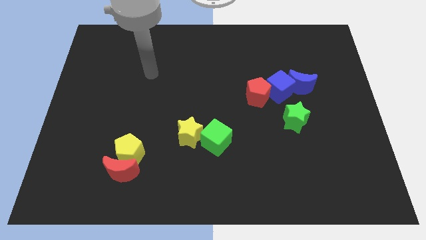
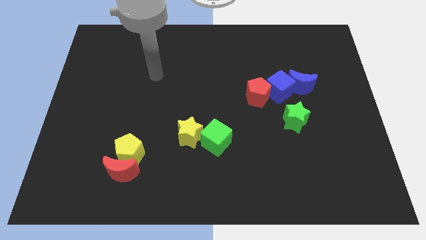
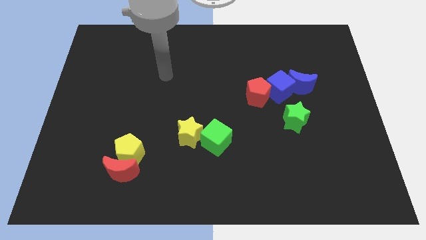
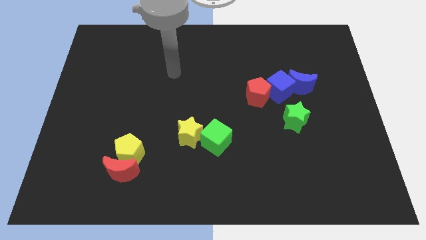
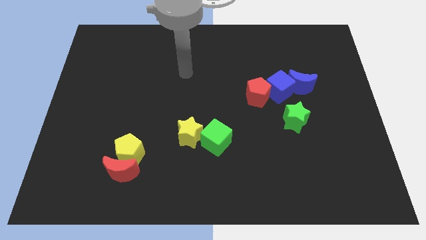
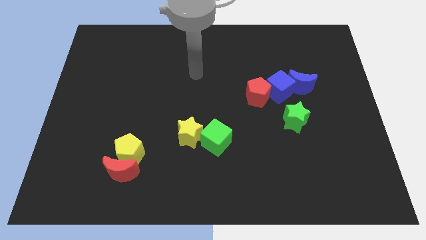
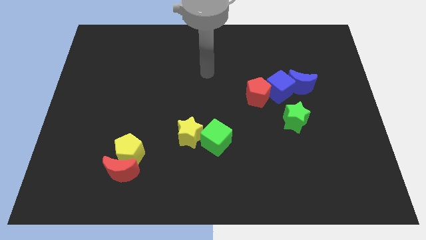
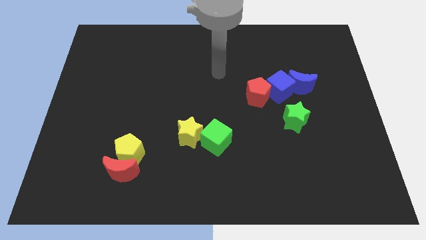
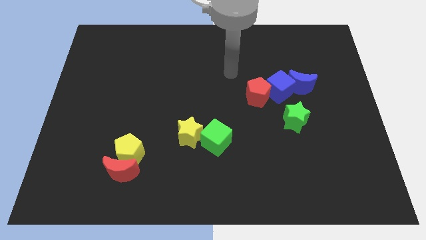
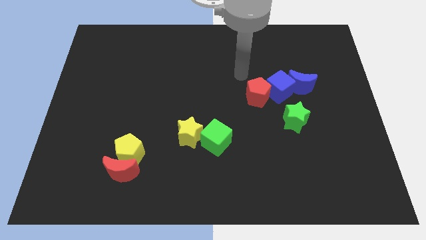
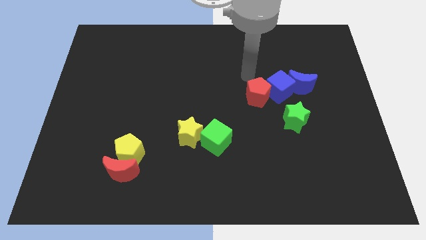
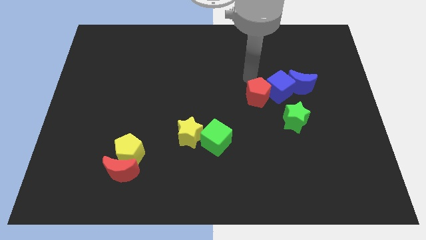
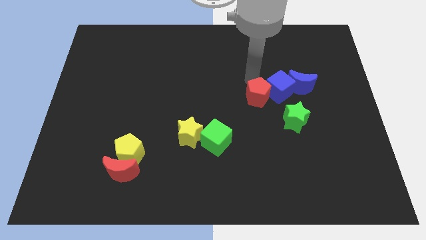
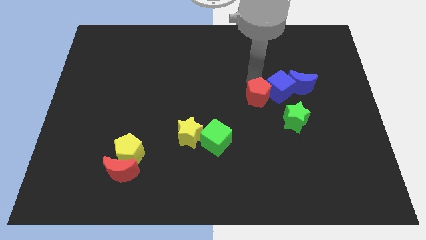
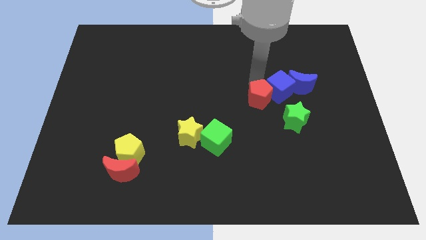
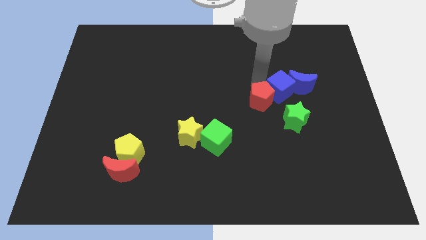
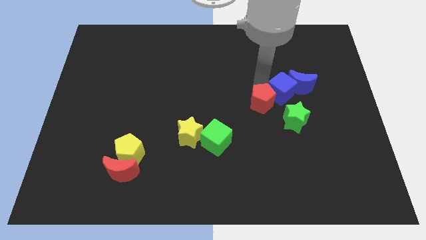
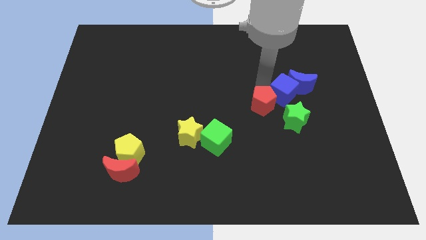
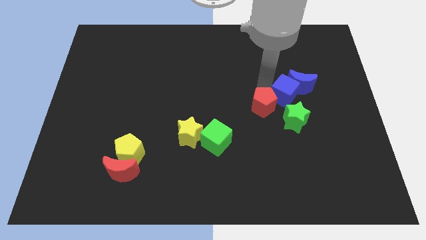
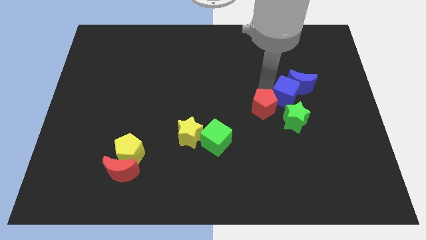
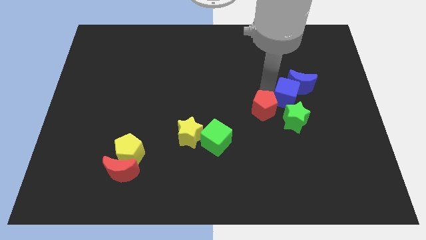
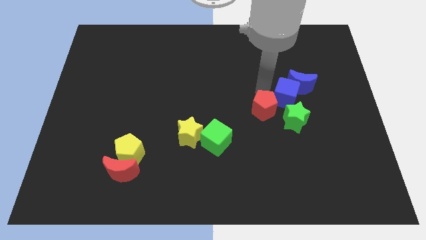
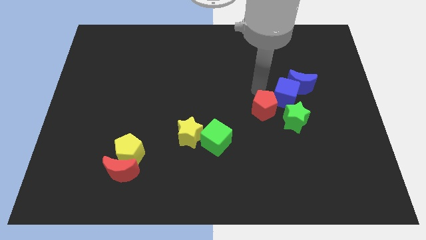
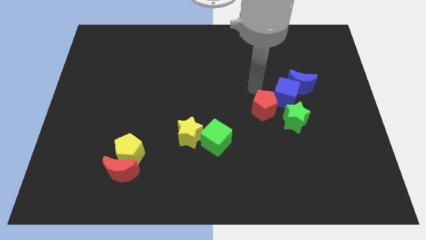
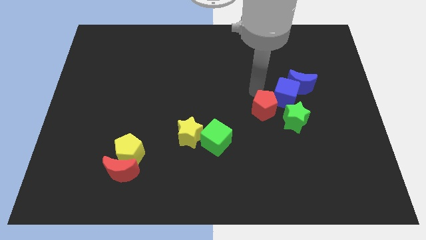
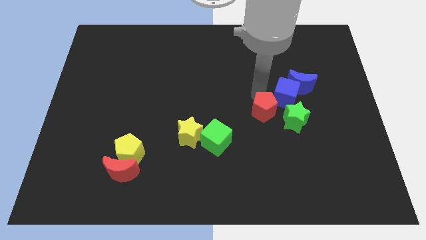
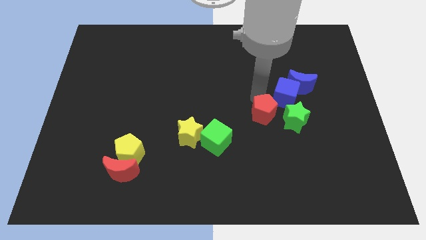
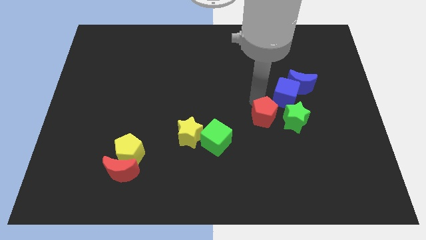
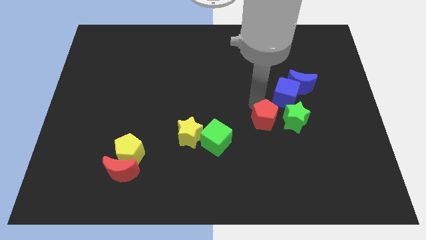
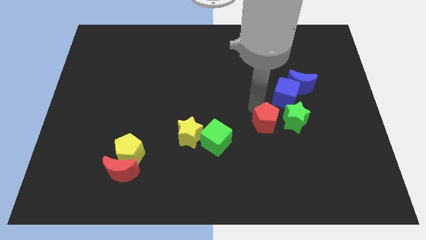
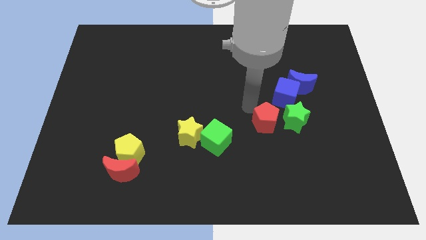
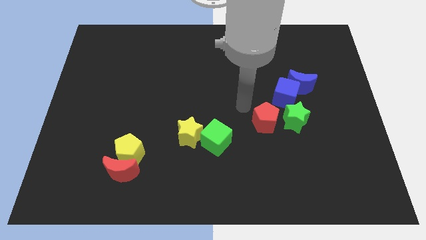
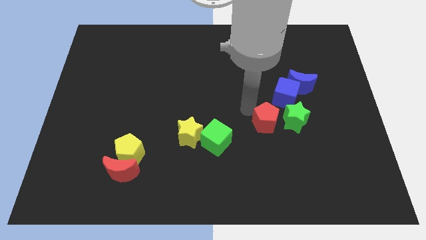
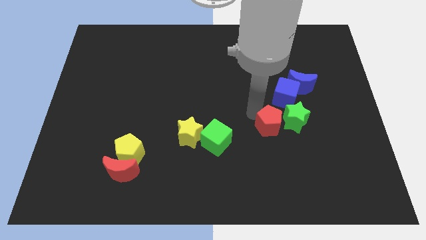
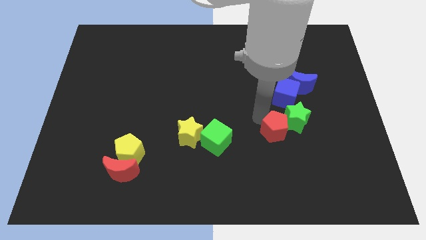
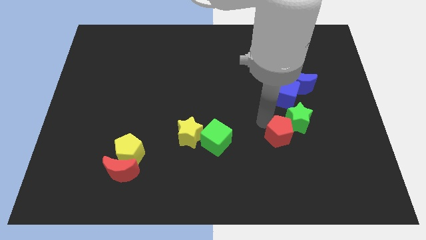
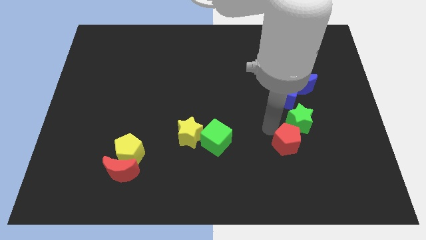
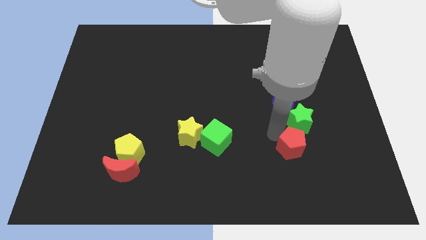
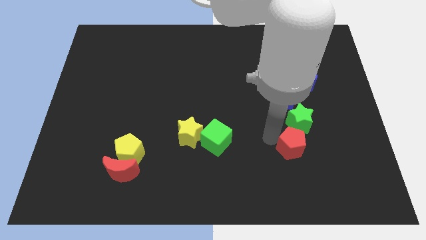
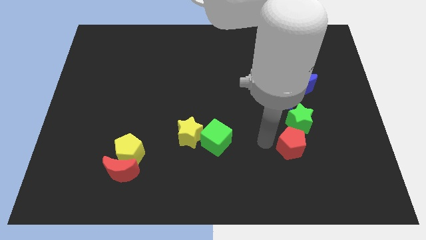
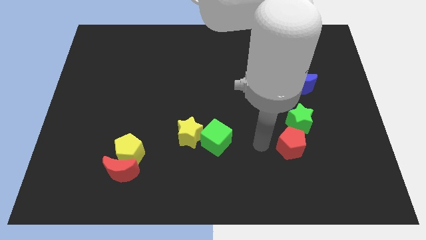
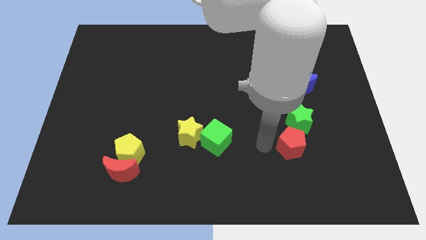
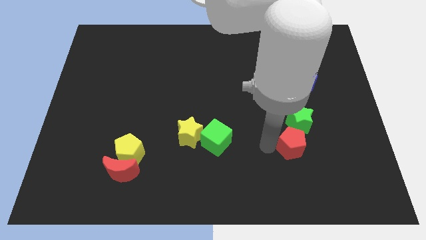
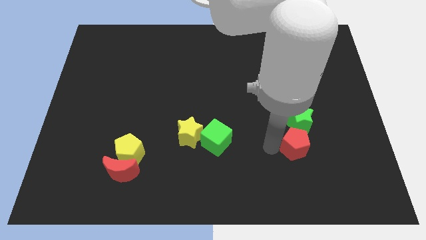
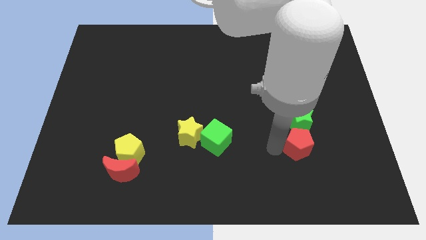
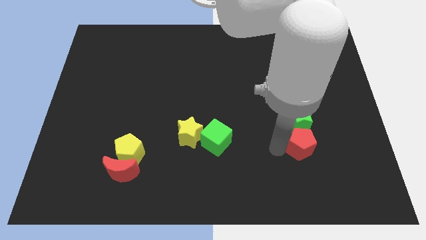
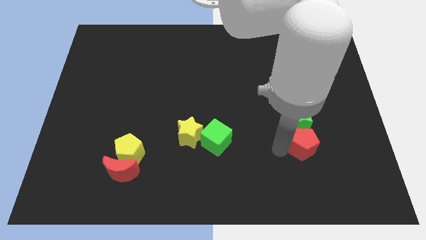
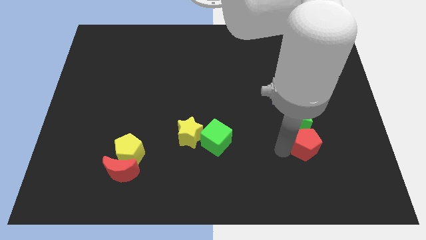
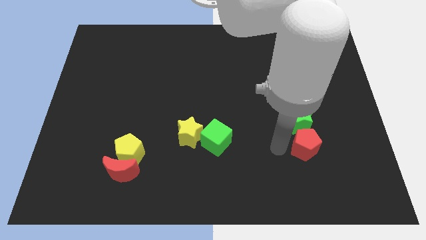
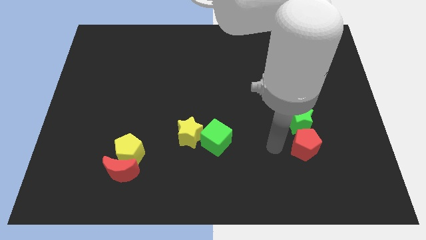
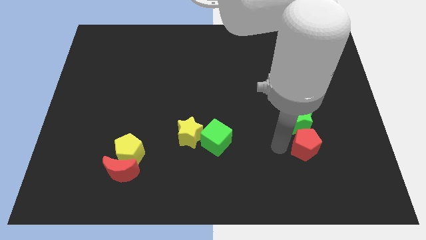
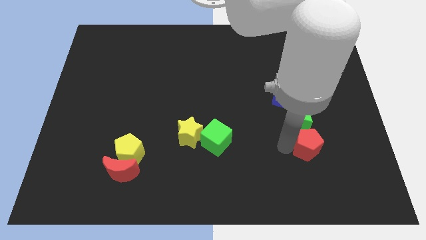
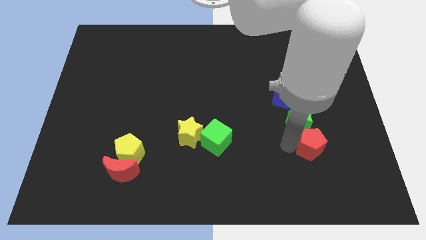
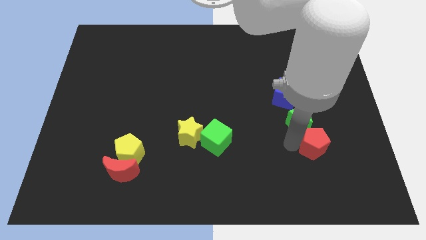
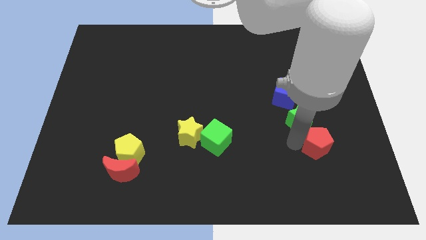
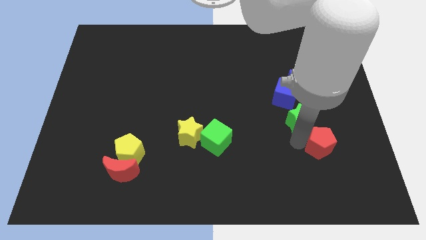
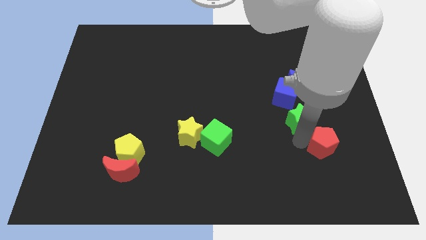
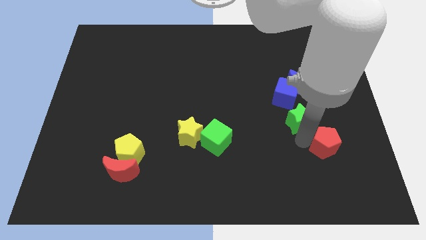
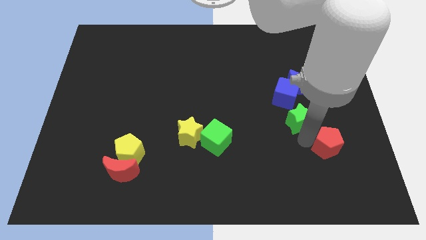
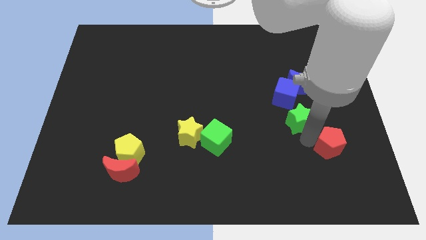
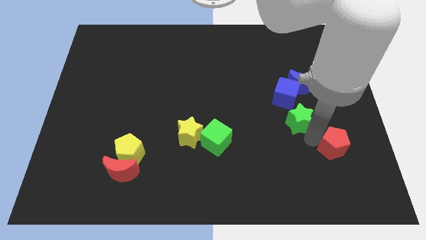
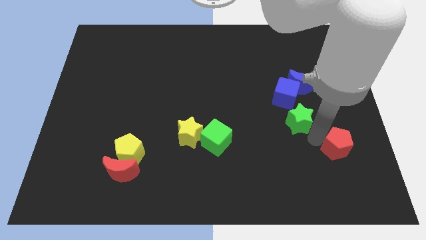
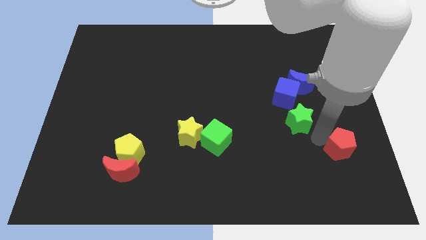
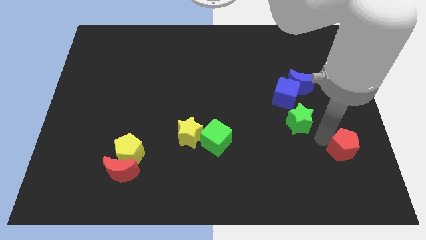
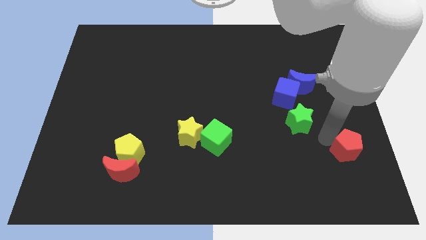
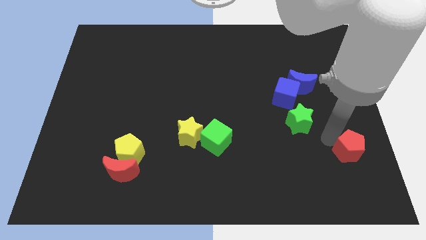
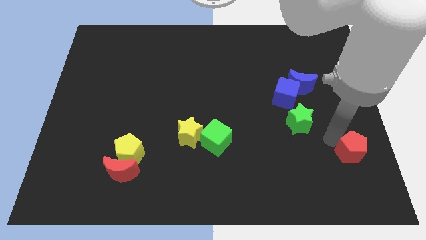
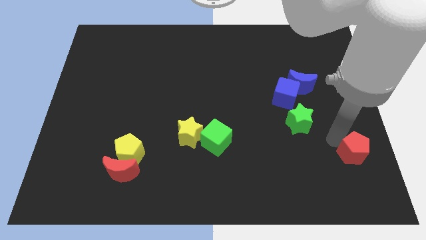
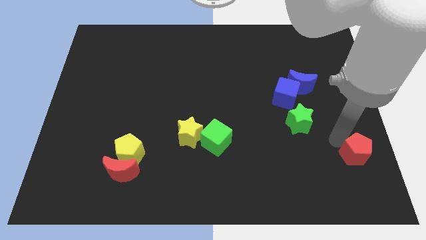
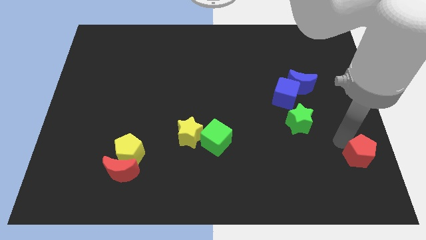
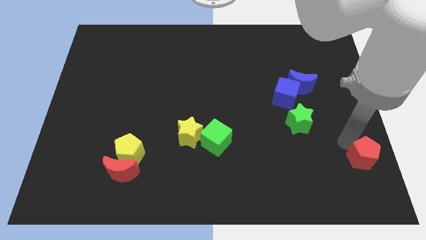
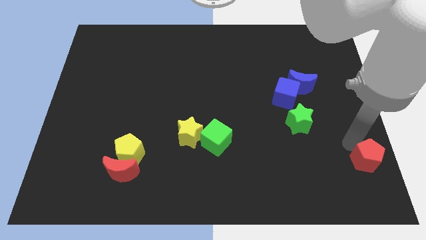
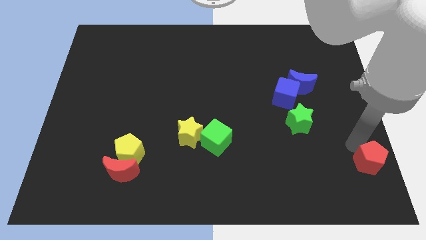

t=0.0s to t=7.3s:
push the red pentagon to the lower right corner
